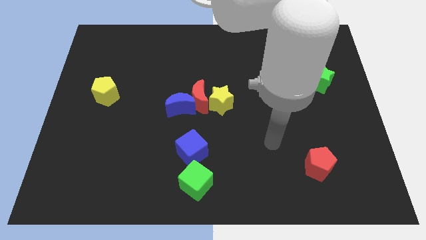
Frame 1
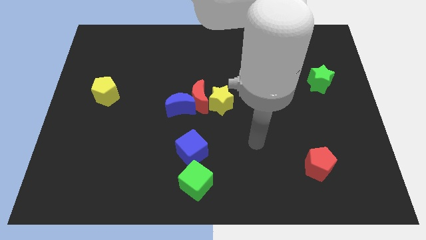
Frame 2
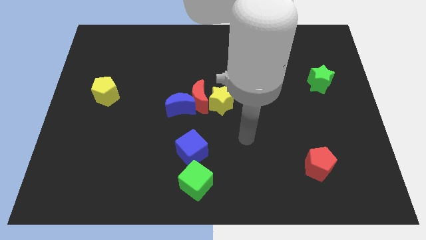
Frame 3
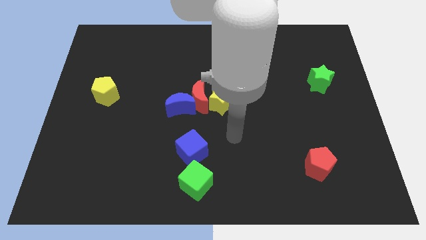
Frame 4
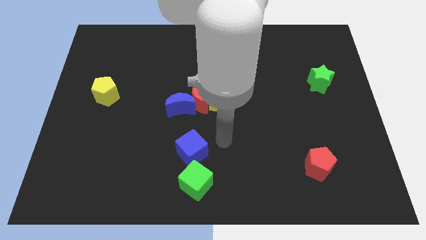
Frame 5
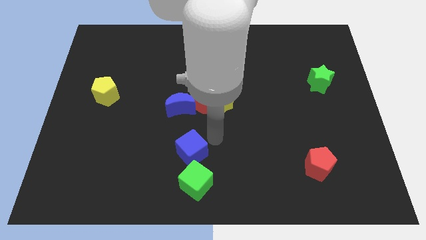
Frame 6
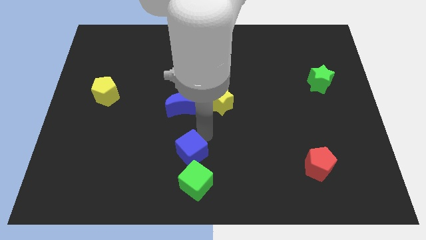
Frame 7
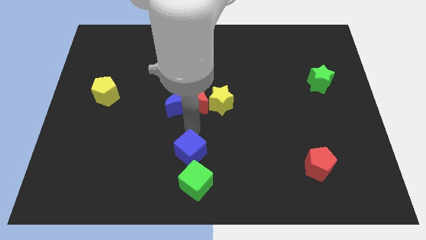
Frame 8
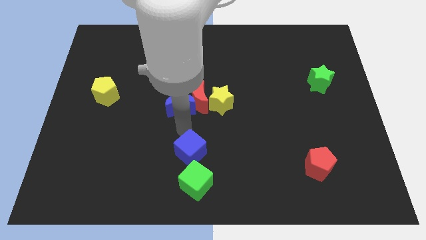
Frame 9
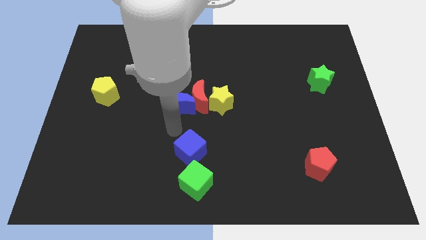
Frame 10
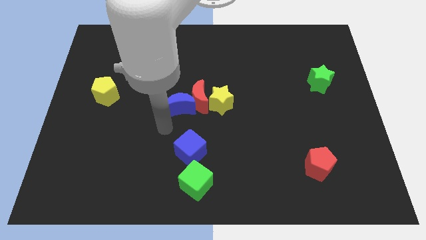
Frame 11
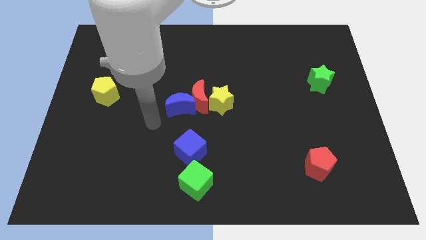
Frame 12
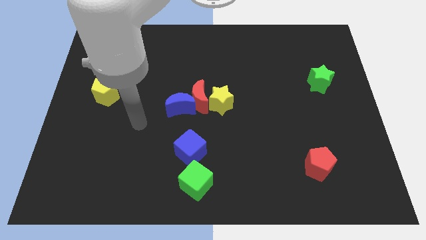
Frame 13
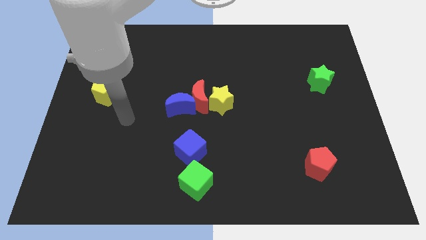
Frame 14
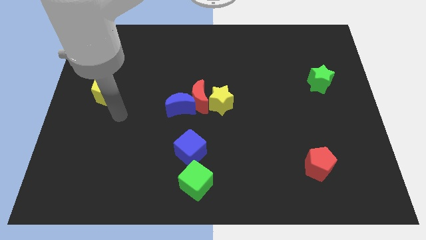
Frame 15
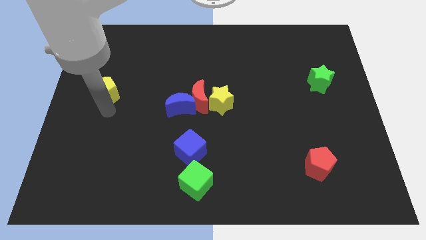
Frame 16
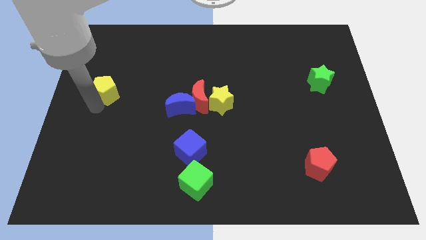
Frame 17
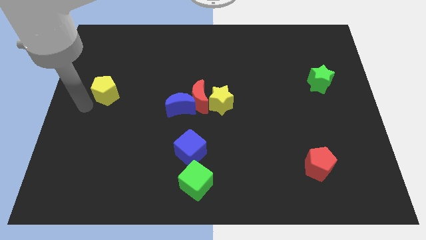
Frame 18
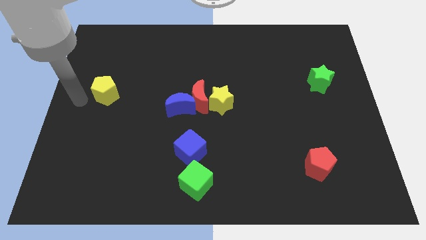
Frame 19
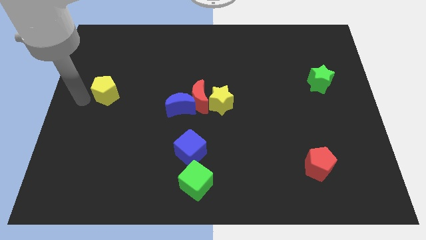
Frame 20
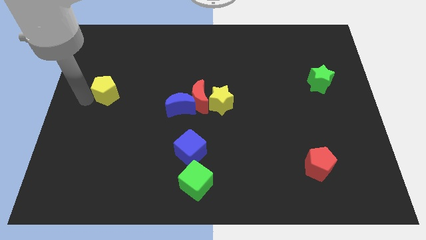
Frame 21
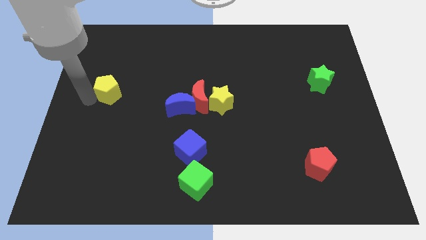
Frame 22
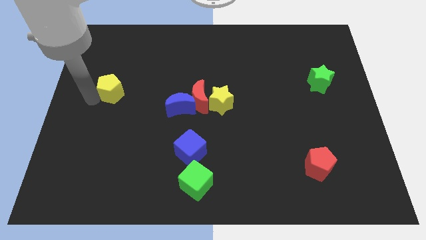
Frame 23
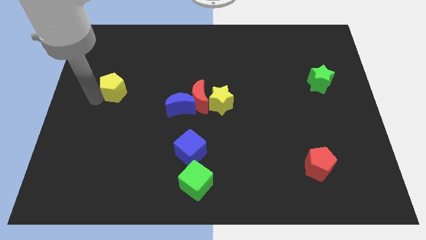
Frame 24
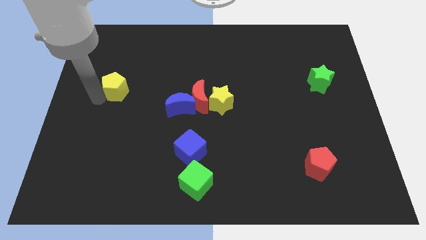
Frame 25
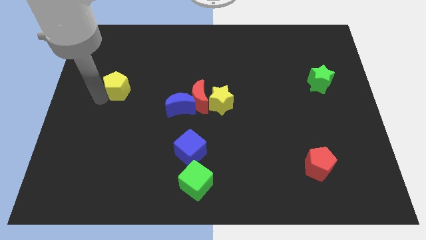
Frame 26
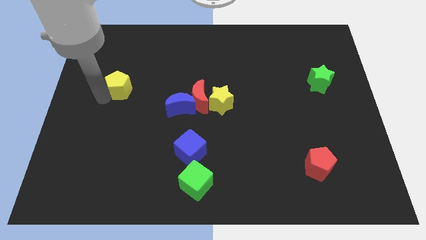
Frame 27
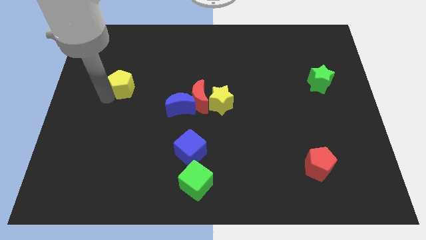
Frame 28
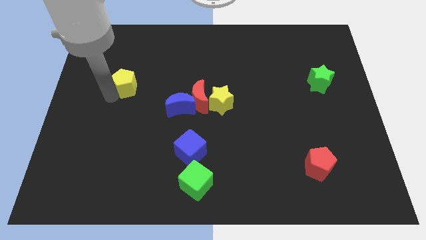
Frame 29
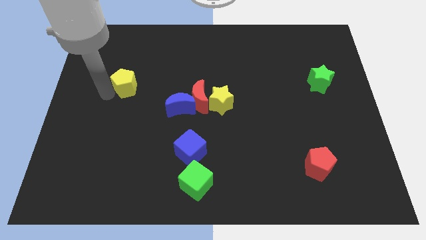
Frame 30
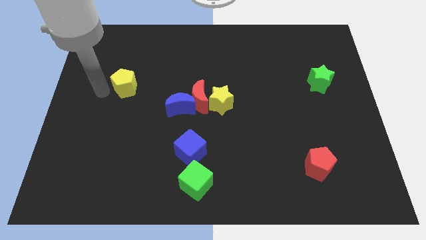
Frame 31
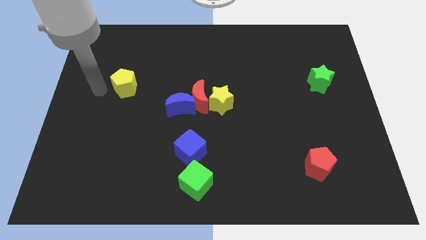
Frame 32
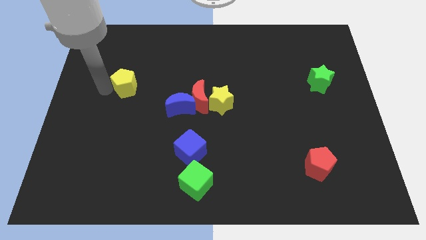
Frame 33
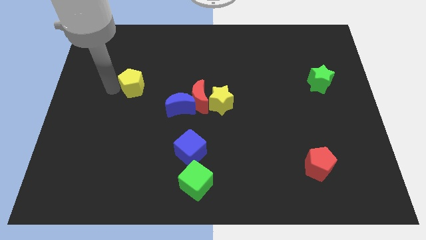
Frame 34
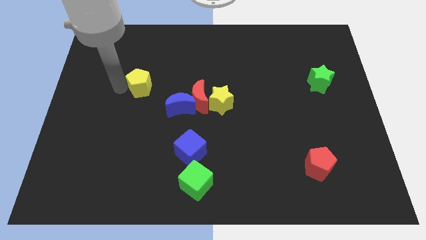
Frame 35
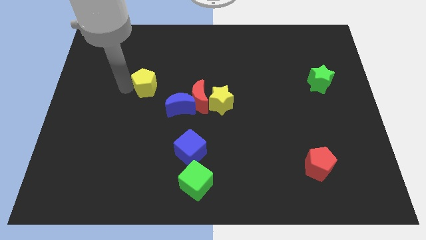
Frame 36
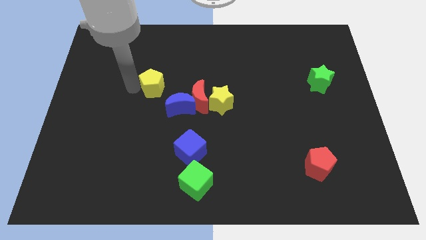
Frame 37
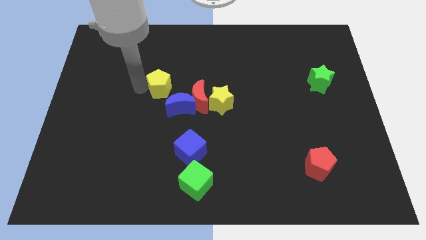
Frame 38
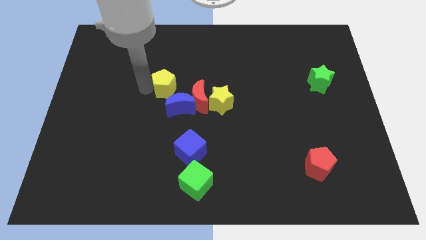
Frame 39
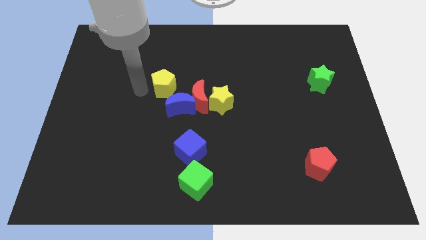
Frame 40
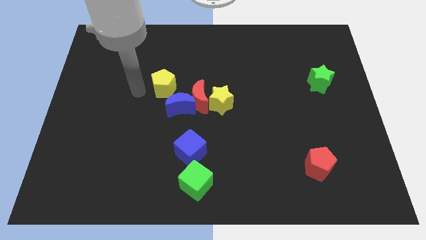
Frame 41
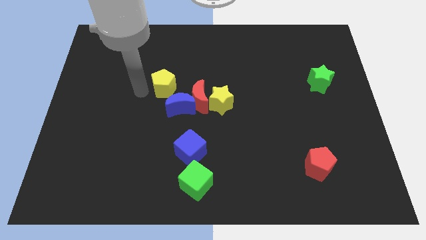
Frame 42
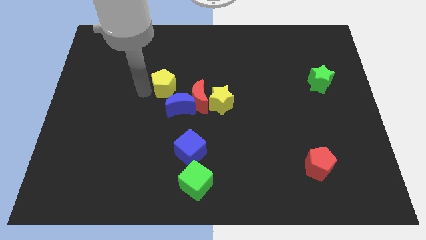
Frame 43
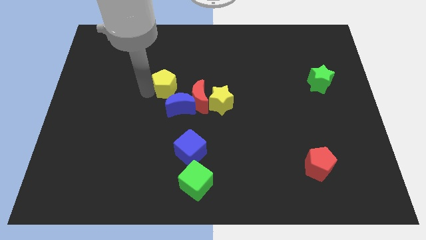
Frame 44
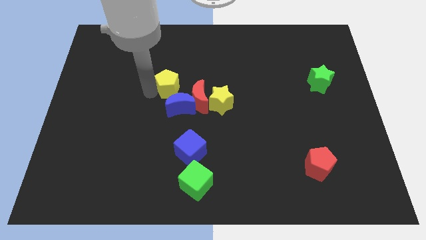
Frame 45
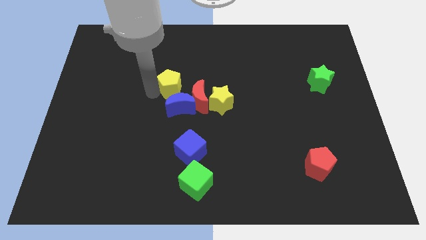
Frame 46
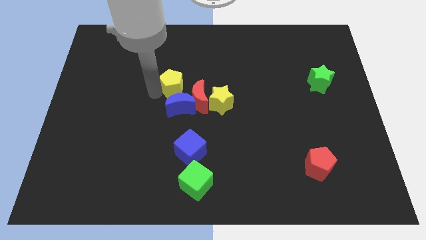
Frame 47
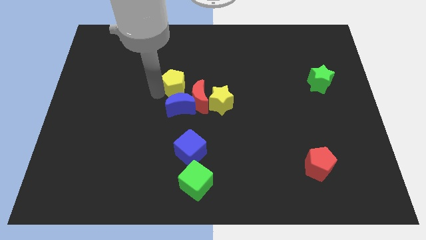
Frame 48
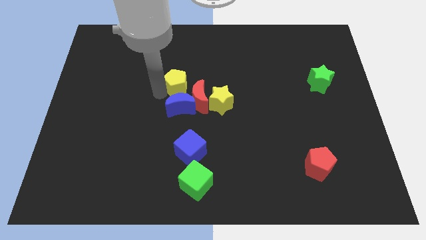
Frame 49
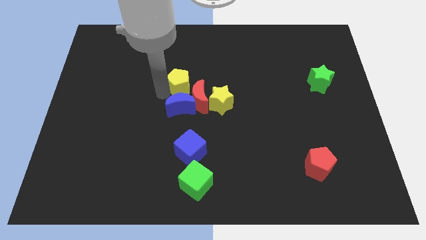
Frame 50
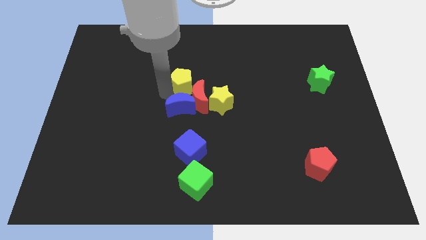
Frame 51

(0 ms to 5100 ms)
move the yellow pentagon towards the red moon

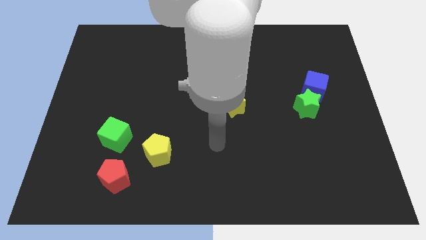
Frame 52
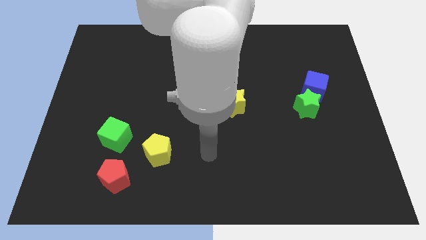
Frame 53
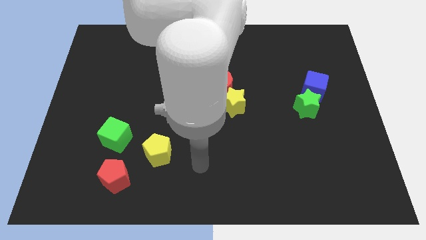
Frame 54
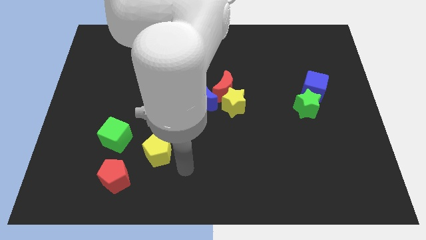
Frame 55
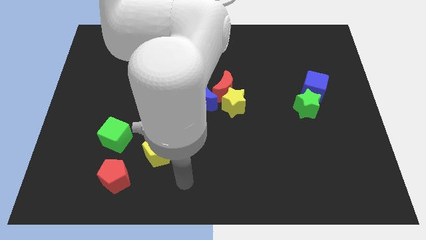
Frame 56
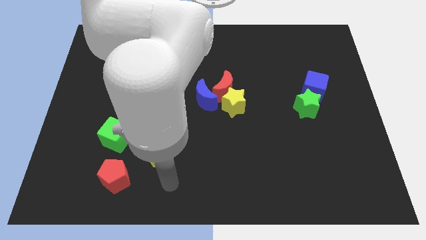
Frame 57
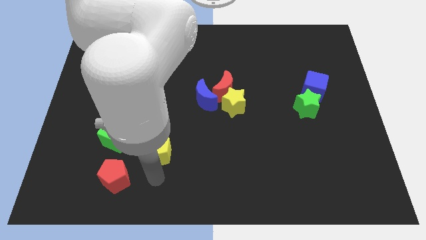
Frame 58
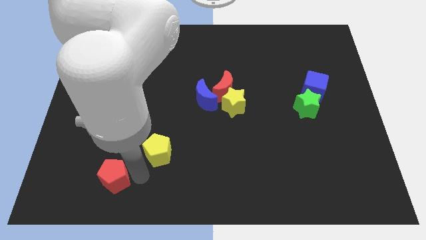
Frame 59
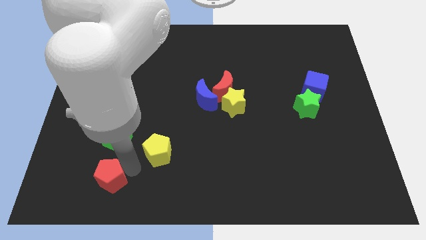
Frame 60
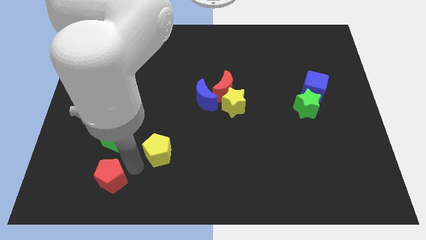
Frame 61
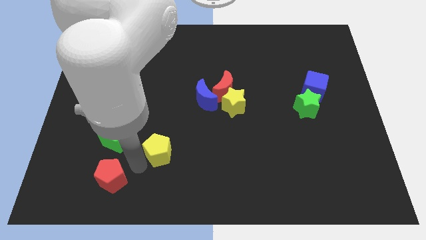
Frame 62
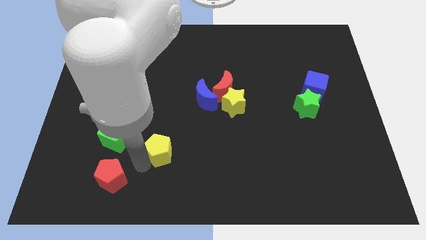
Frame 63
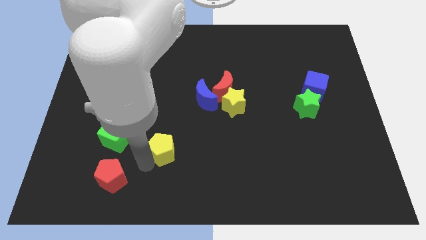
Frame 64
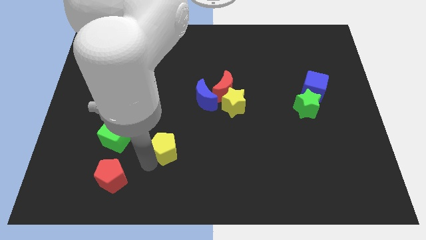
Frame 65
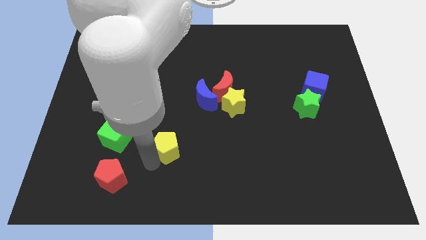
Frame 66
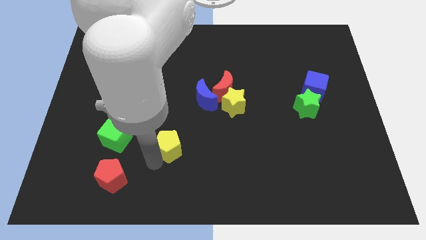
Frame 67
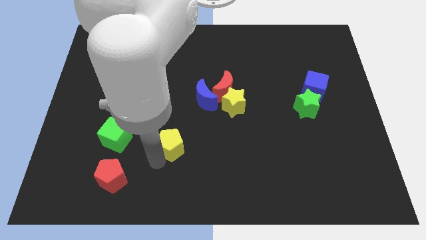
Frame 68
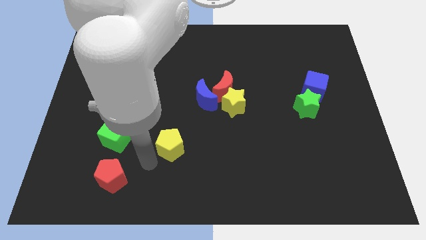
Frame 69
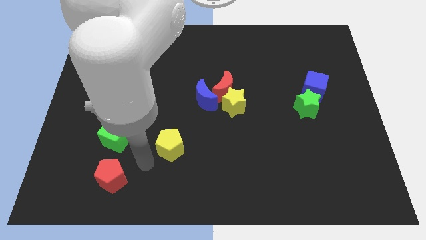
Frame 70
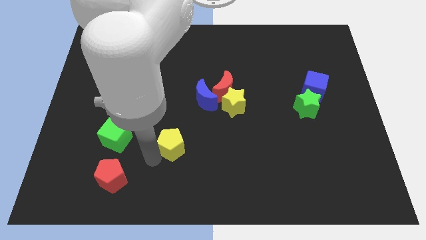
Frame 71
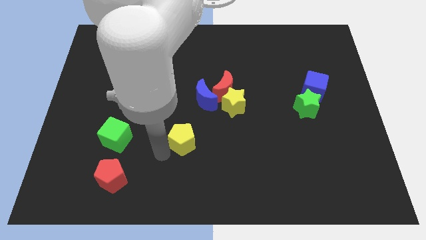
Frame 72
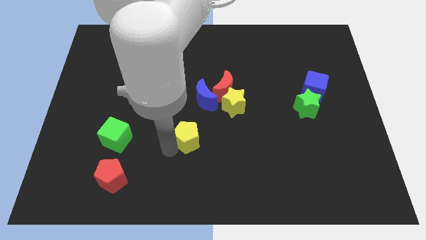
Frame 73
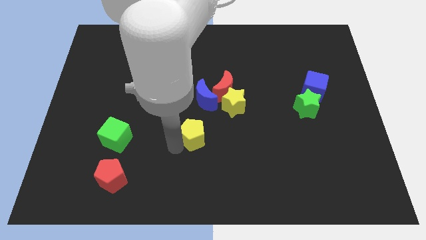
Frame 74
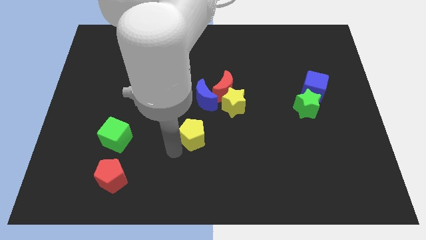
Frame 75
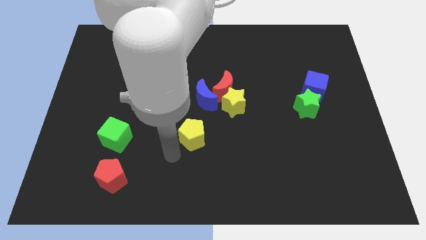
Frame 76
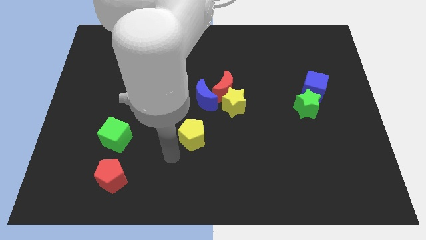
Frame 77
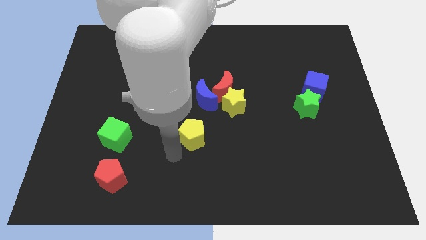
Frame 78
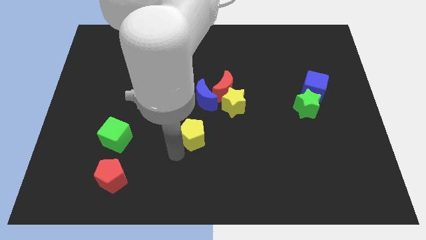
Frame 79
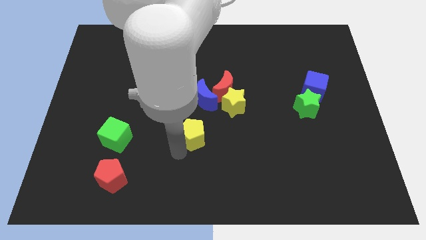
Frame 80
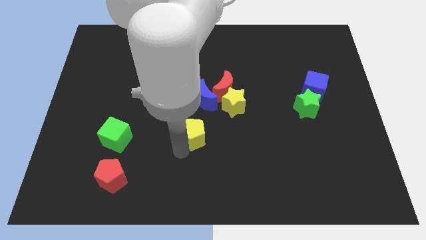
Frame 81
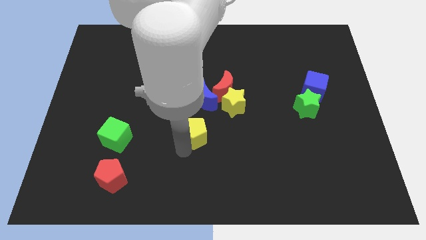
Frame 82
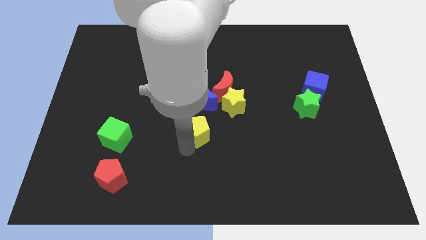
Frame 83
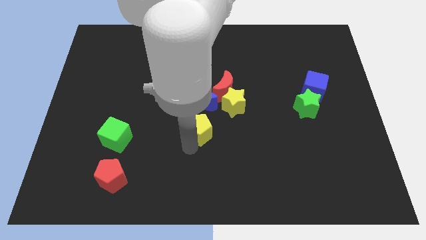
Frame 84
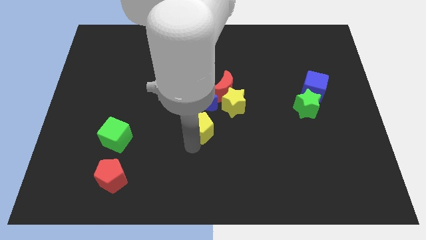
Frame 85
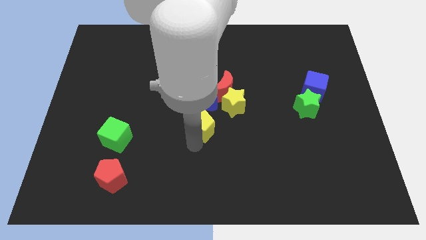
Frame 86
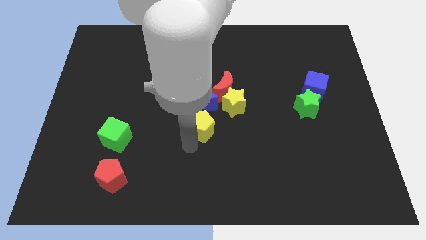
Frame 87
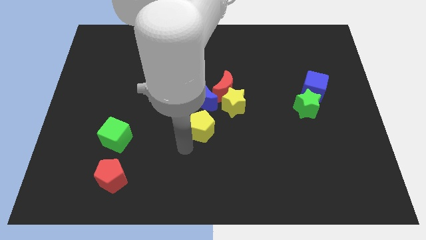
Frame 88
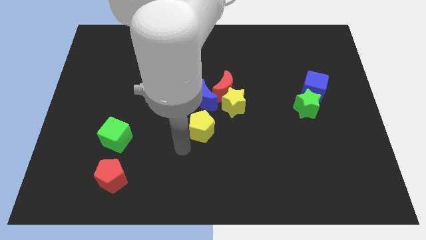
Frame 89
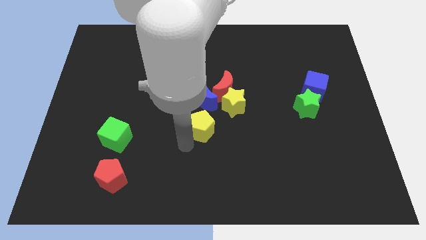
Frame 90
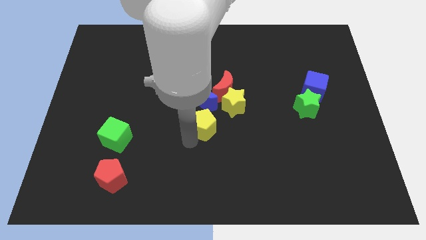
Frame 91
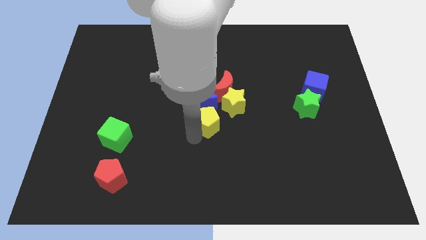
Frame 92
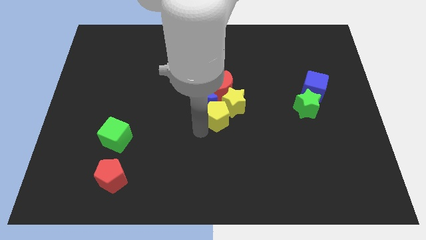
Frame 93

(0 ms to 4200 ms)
slide the yellow pentagon to the yellow star
